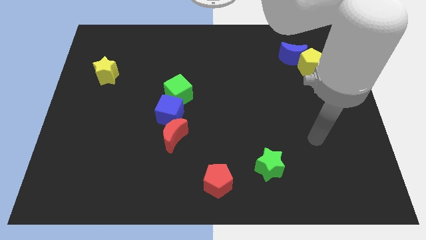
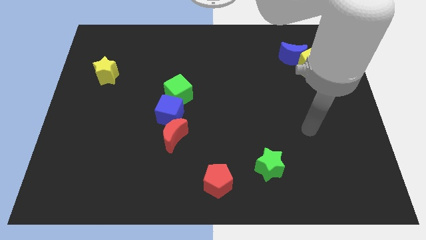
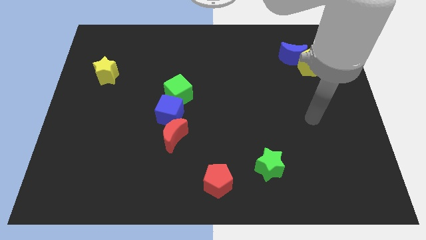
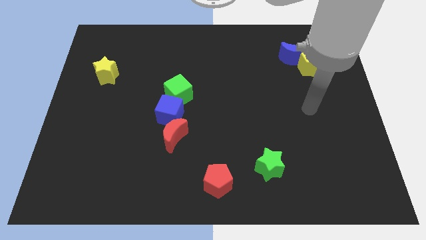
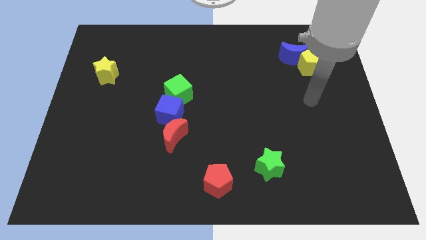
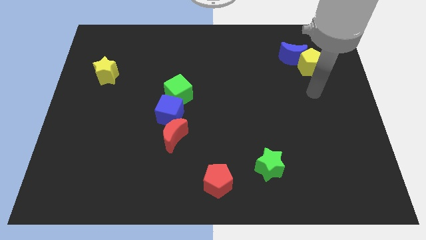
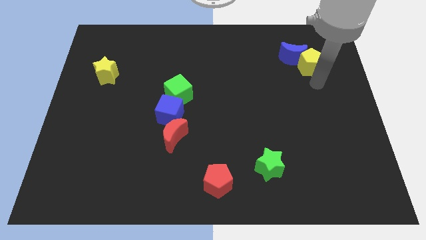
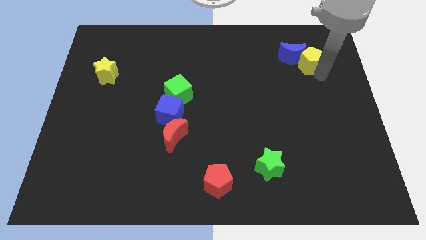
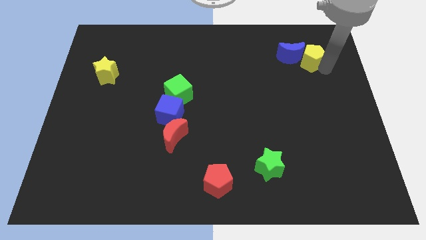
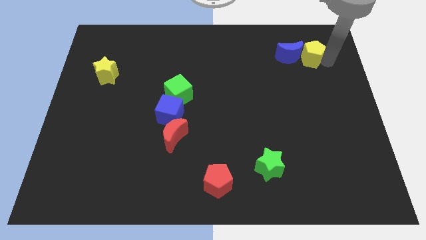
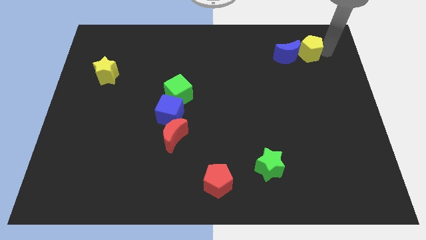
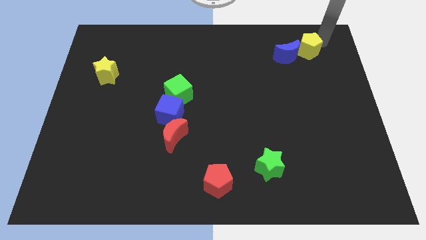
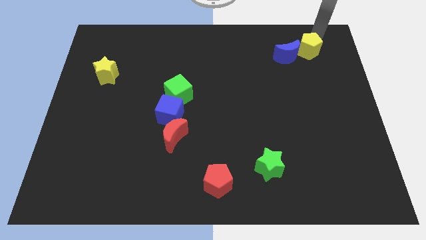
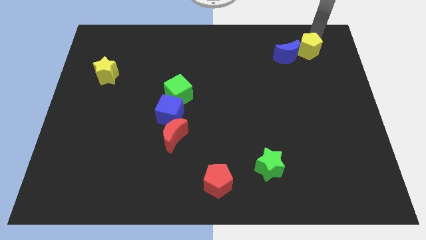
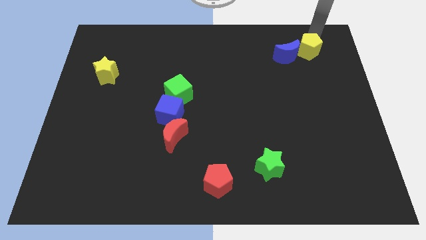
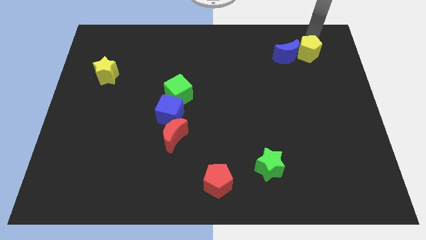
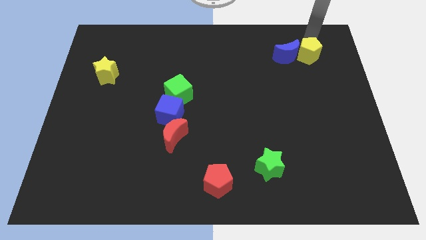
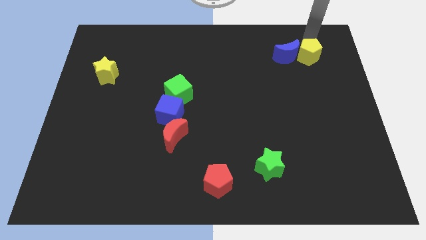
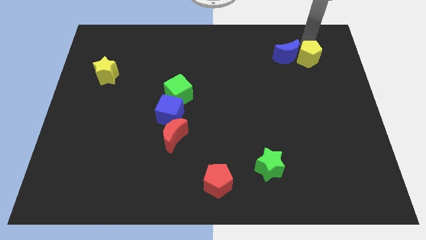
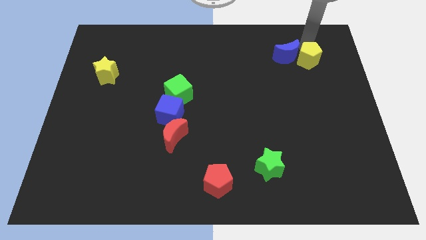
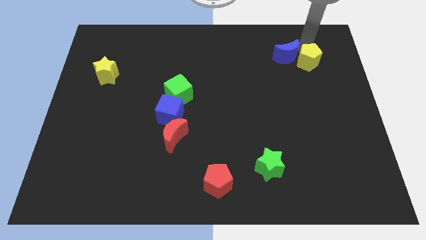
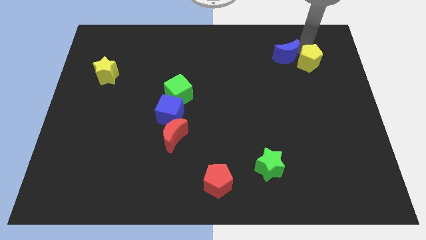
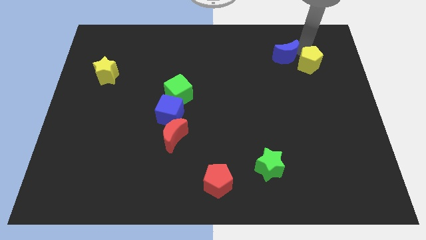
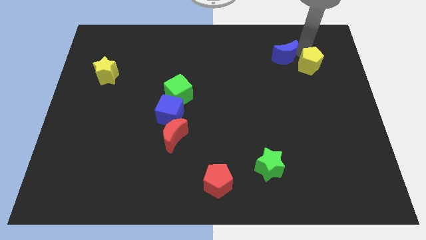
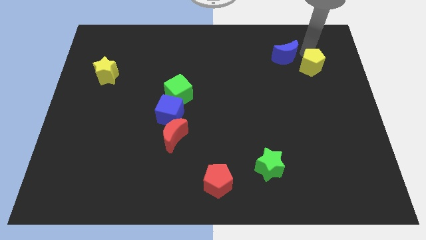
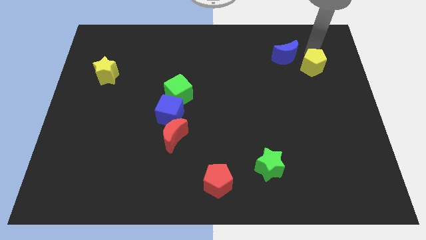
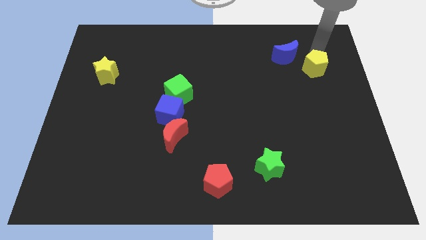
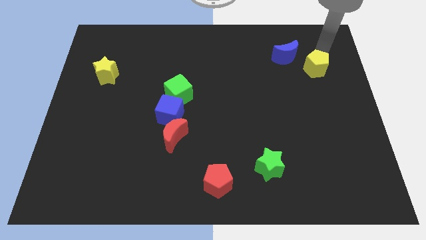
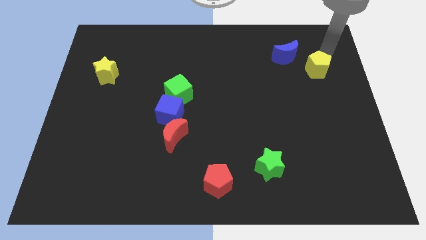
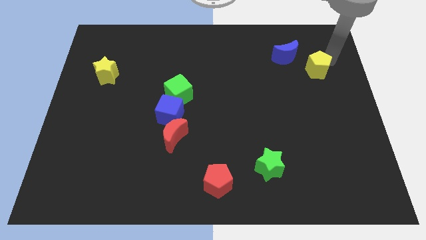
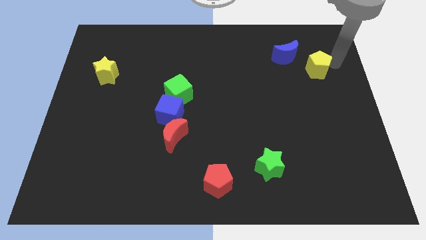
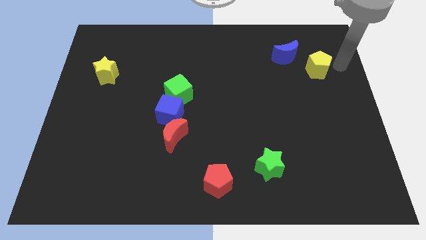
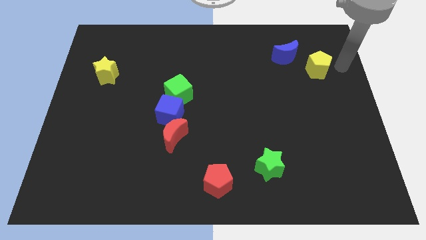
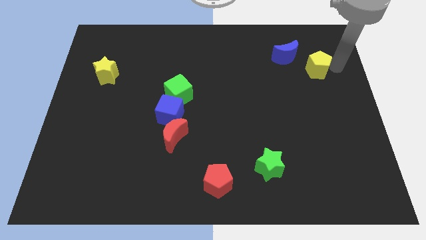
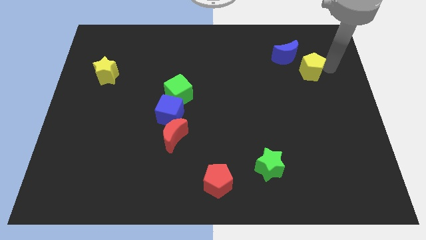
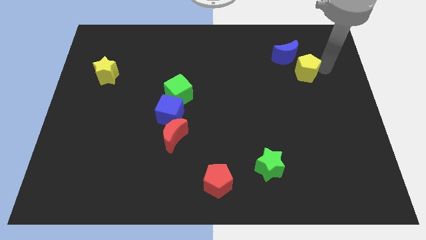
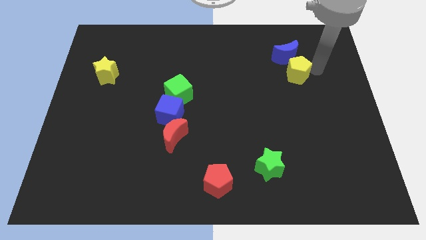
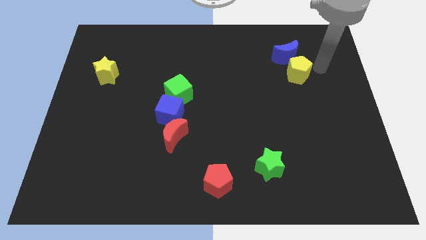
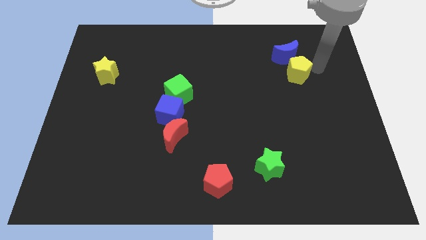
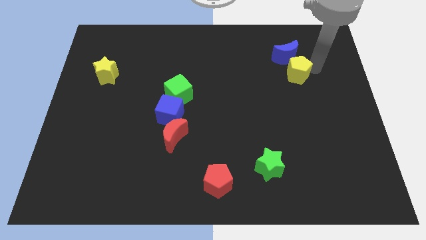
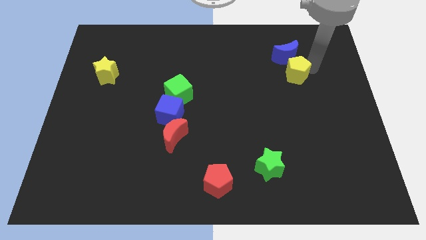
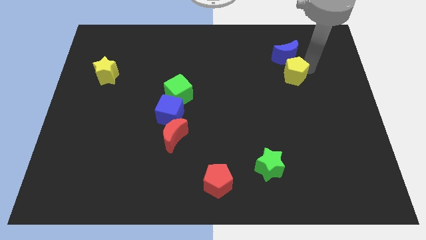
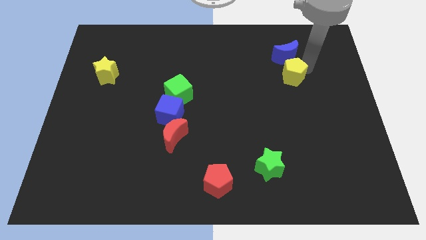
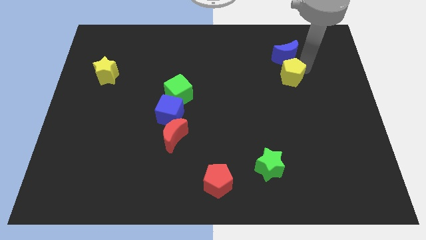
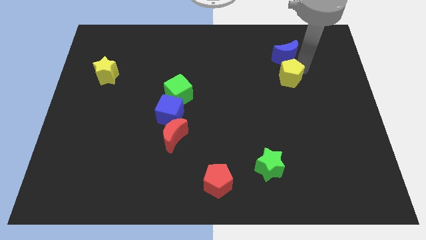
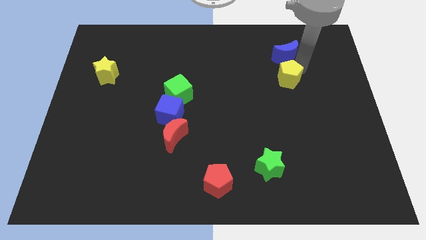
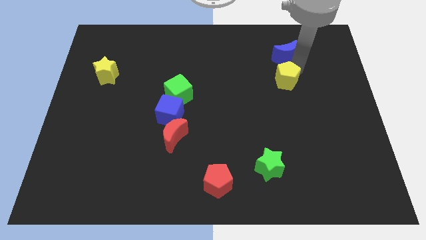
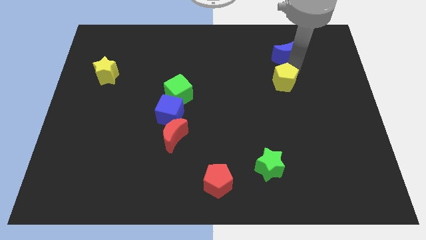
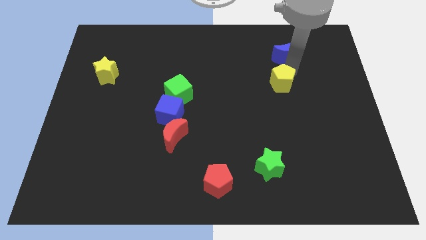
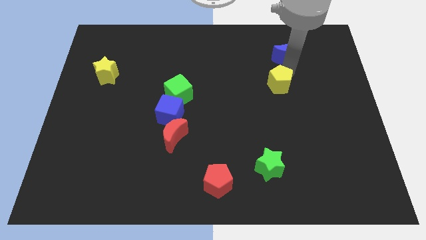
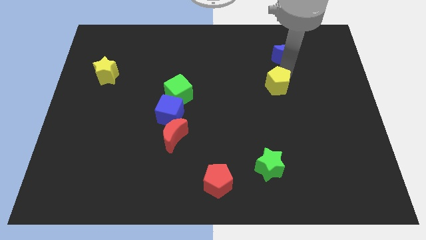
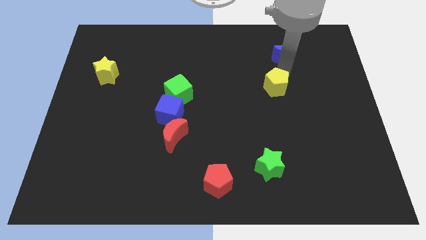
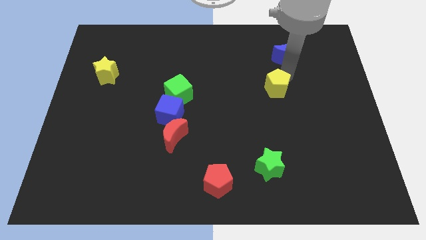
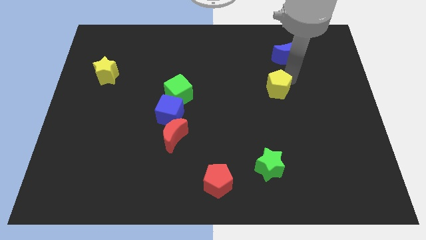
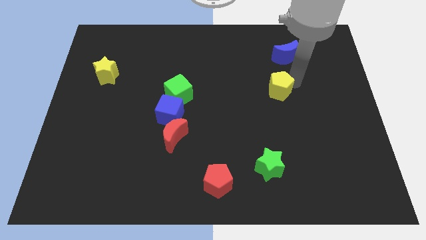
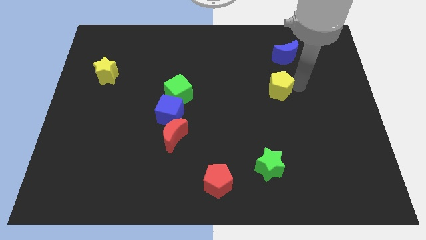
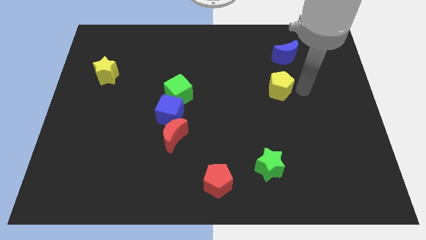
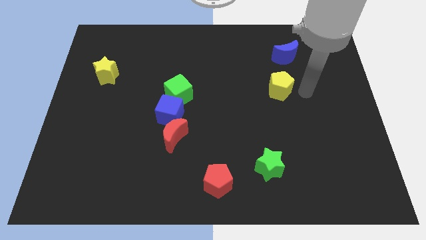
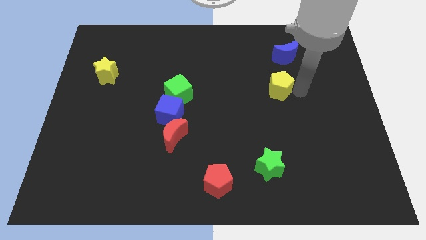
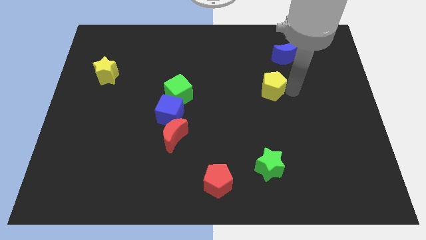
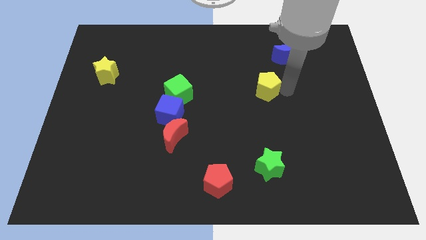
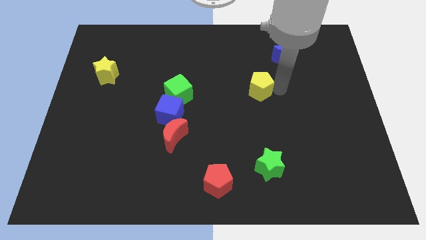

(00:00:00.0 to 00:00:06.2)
slide the yellow pentagon to the center of the board
